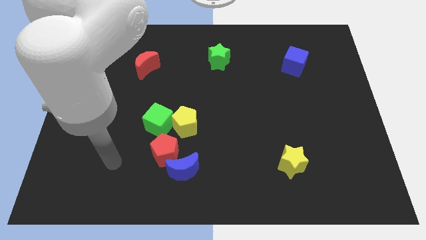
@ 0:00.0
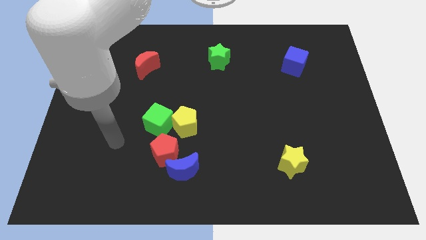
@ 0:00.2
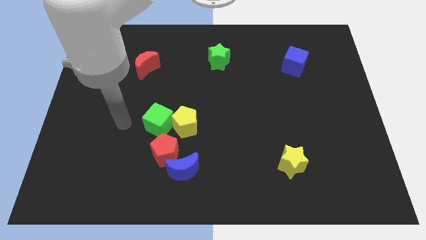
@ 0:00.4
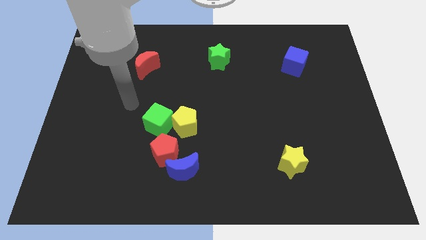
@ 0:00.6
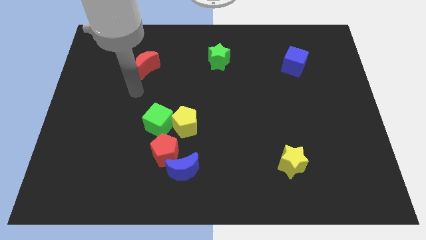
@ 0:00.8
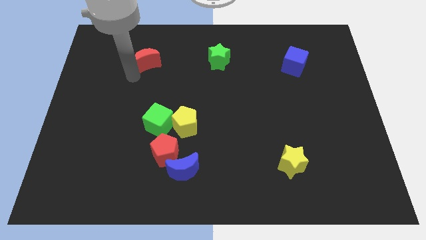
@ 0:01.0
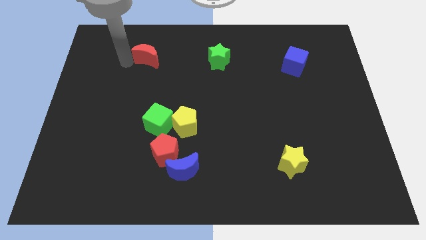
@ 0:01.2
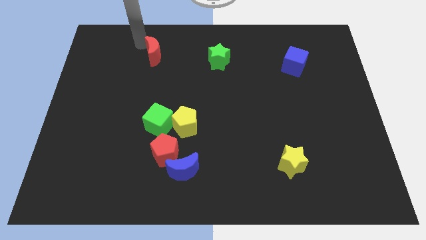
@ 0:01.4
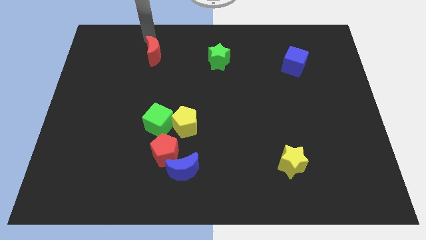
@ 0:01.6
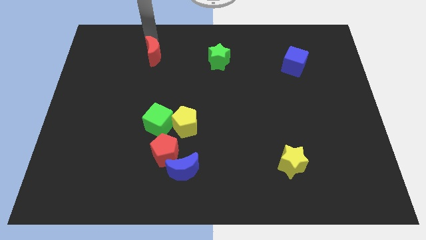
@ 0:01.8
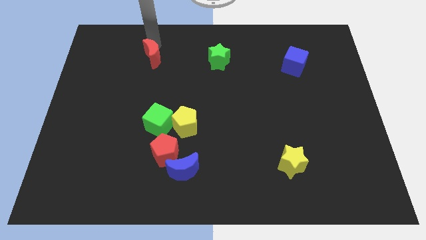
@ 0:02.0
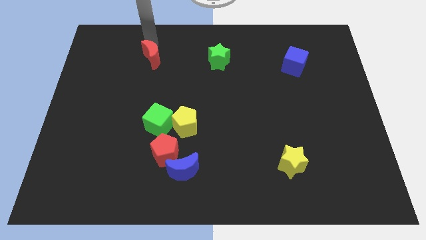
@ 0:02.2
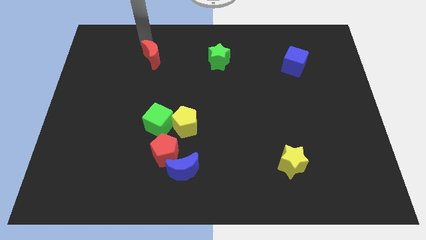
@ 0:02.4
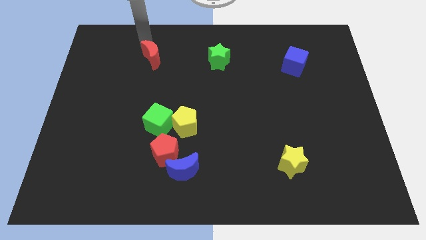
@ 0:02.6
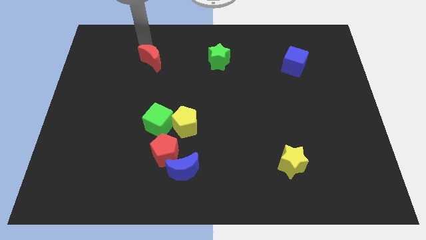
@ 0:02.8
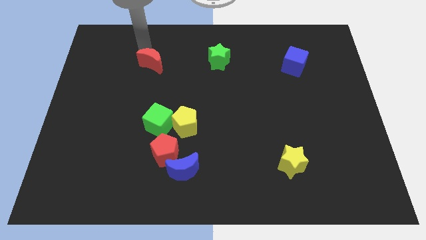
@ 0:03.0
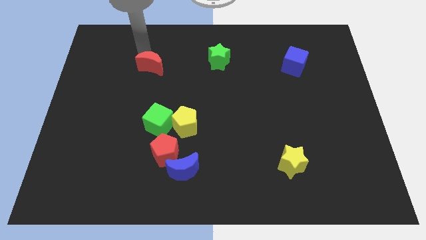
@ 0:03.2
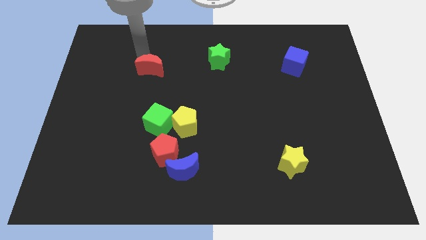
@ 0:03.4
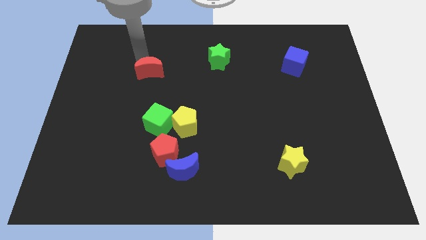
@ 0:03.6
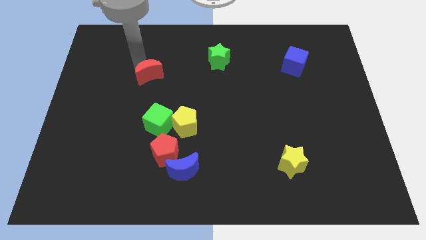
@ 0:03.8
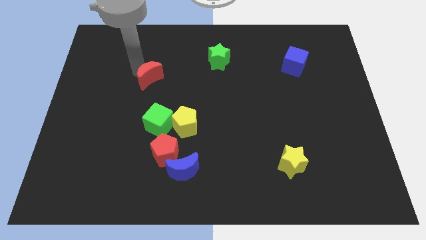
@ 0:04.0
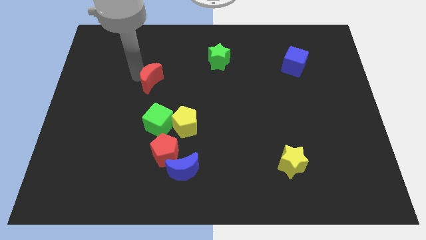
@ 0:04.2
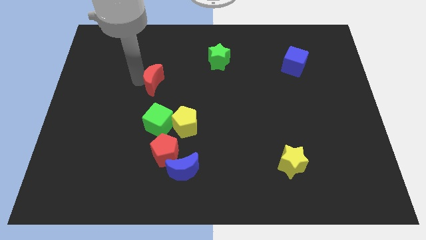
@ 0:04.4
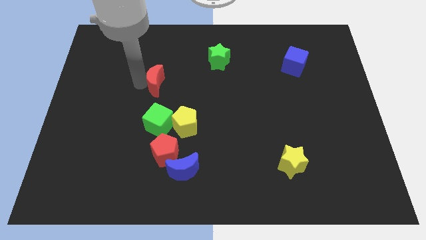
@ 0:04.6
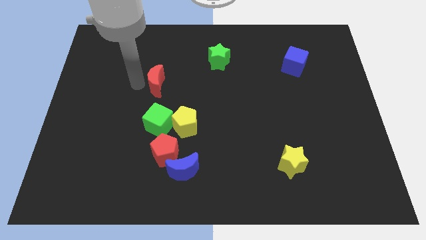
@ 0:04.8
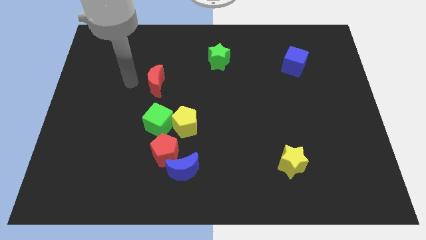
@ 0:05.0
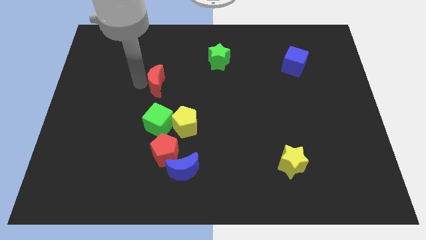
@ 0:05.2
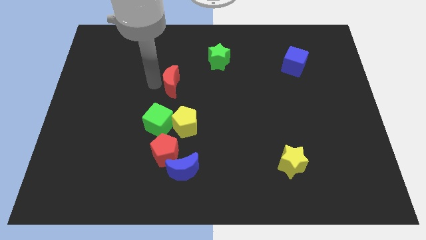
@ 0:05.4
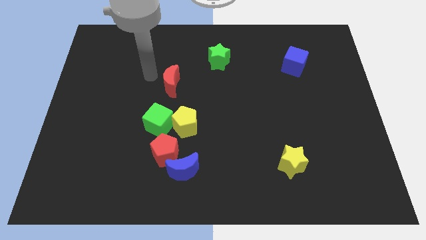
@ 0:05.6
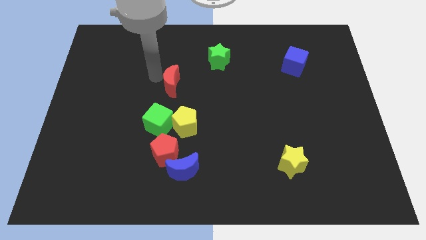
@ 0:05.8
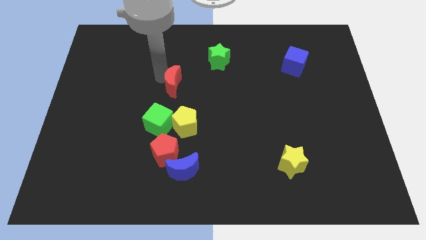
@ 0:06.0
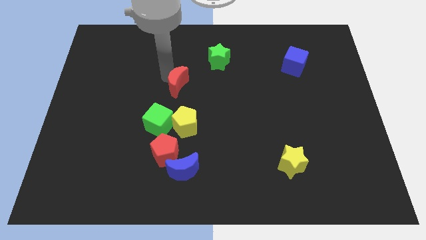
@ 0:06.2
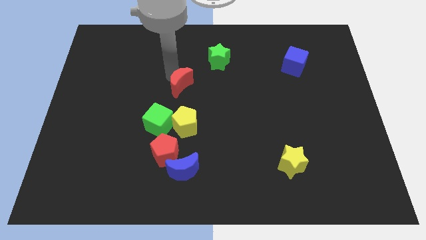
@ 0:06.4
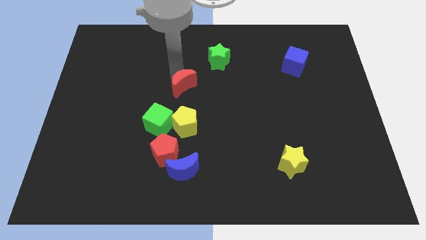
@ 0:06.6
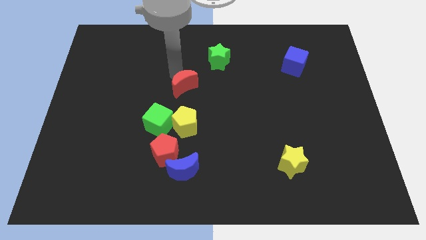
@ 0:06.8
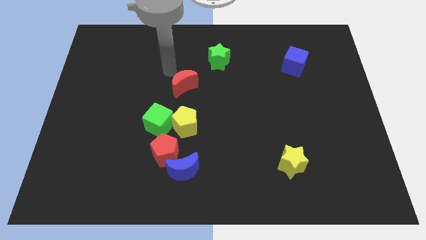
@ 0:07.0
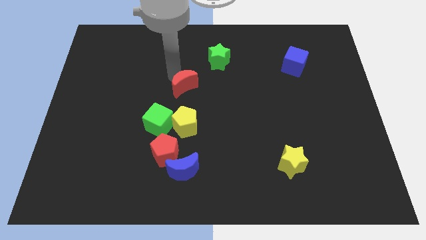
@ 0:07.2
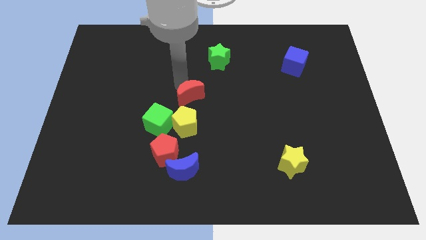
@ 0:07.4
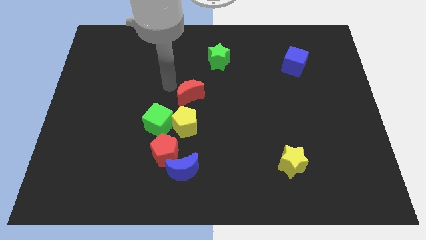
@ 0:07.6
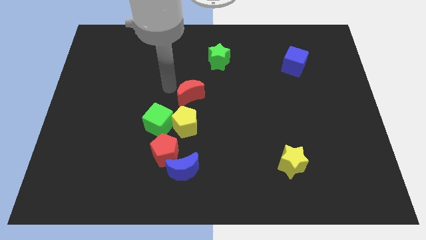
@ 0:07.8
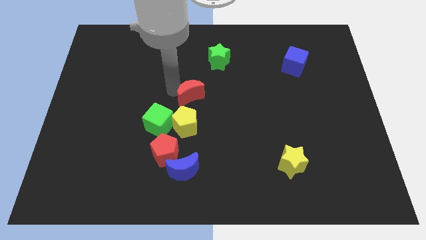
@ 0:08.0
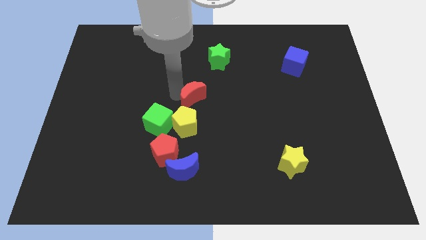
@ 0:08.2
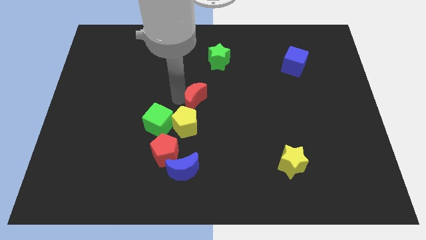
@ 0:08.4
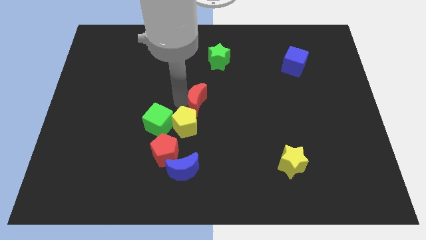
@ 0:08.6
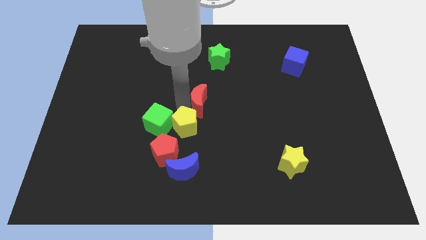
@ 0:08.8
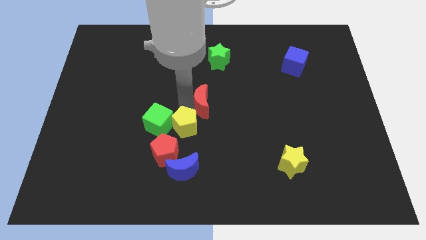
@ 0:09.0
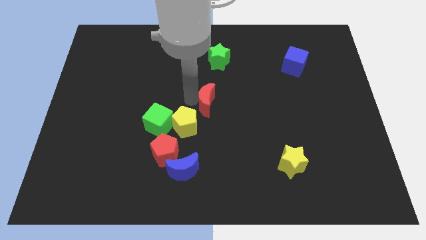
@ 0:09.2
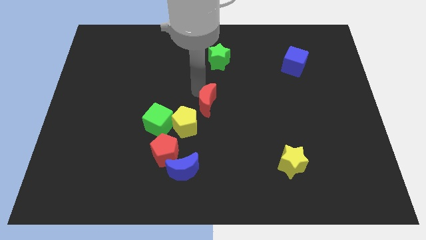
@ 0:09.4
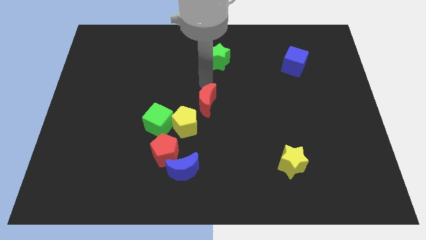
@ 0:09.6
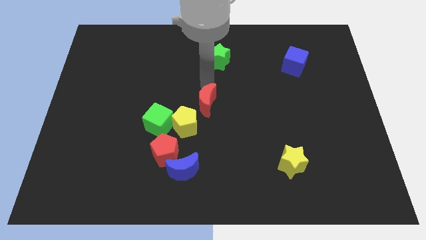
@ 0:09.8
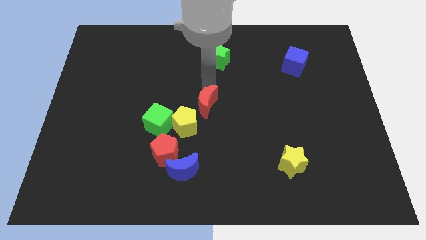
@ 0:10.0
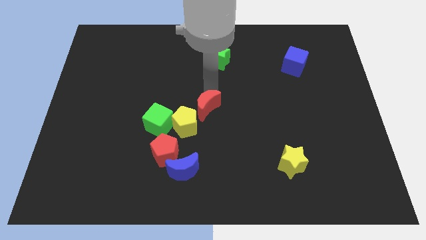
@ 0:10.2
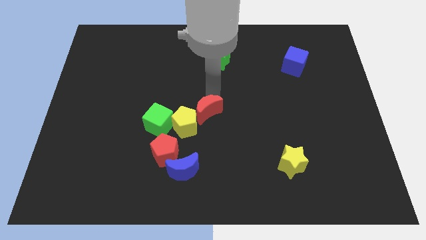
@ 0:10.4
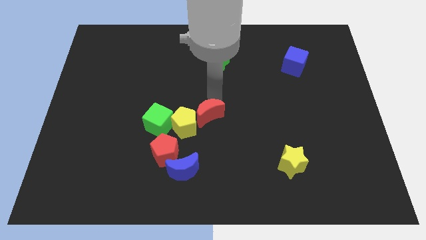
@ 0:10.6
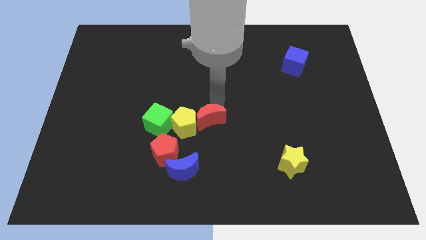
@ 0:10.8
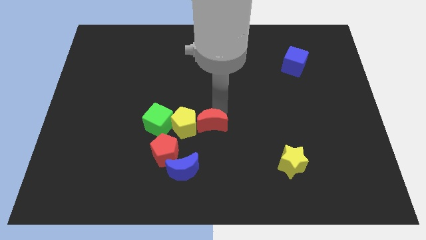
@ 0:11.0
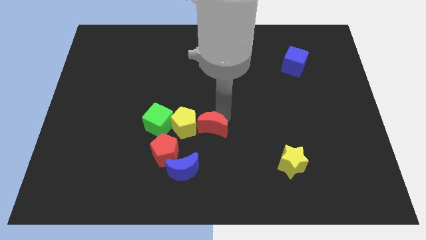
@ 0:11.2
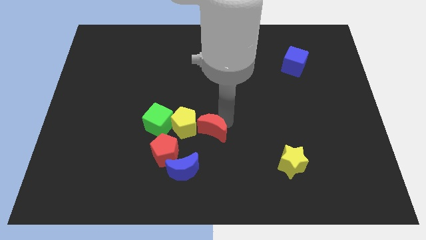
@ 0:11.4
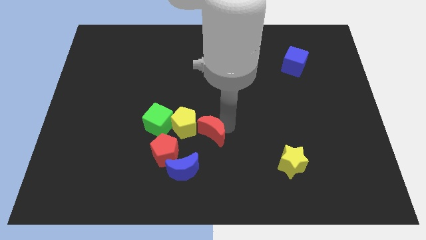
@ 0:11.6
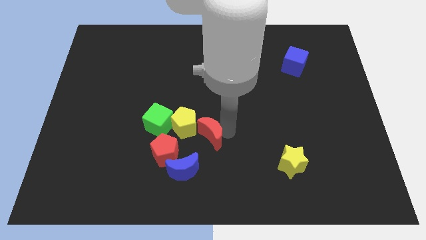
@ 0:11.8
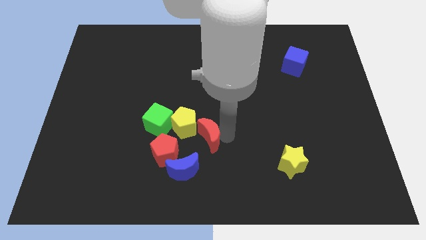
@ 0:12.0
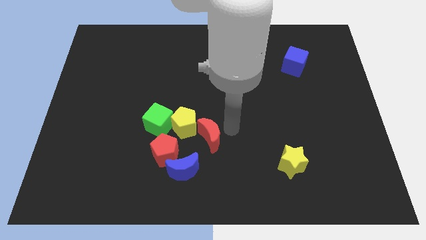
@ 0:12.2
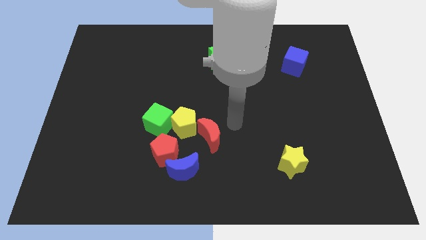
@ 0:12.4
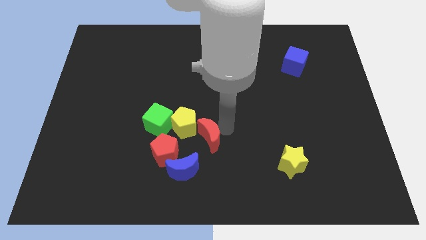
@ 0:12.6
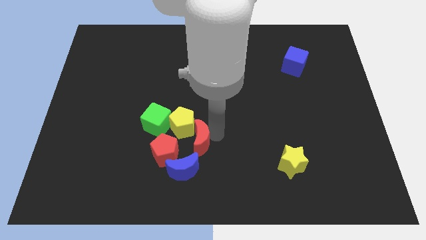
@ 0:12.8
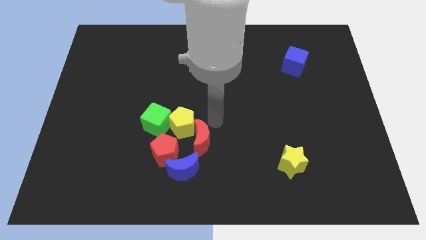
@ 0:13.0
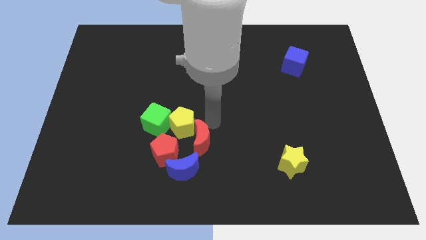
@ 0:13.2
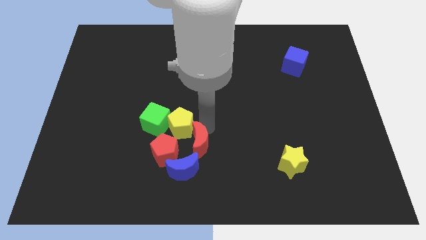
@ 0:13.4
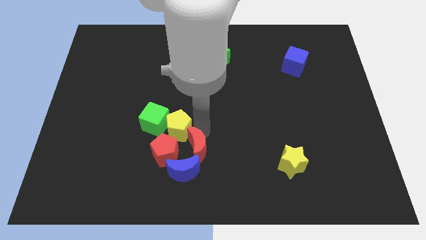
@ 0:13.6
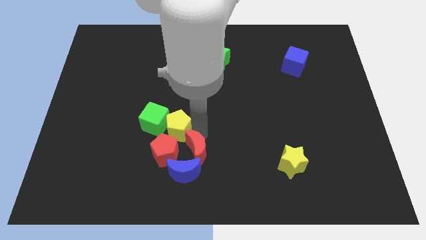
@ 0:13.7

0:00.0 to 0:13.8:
move the red moon close to the blue moon
